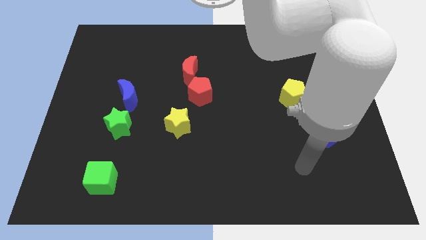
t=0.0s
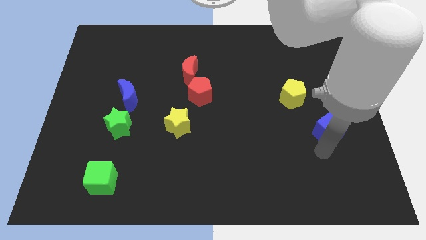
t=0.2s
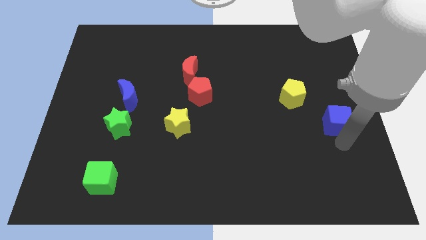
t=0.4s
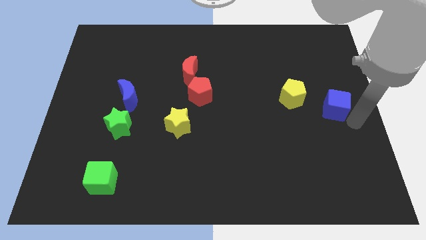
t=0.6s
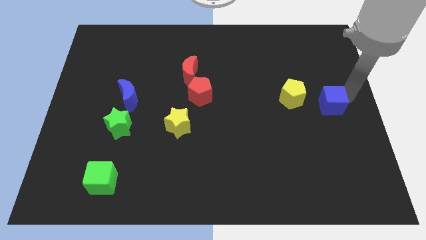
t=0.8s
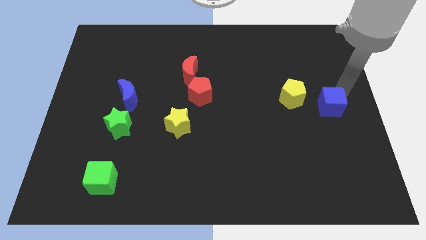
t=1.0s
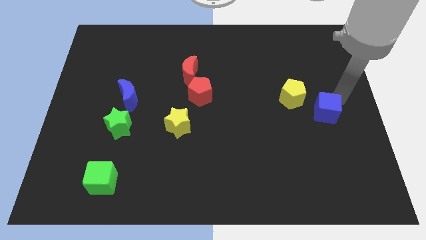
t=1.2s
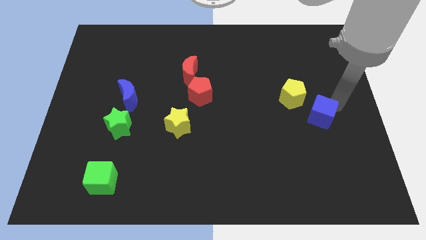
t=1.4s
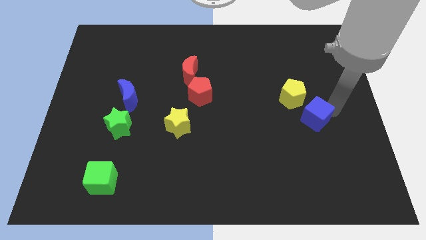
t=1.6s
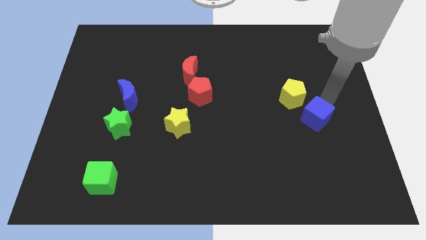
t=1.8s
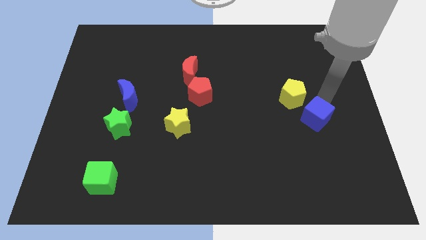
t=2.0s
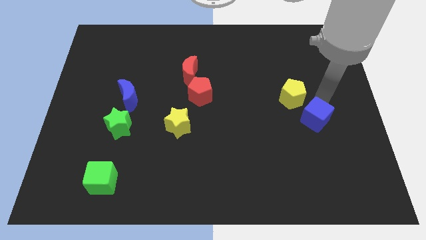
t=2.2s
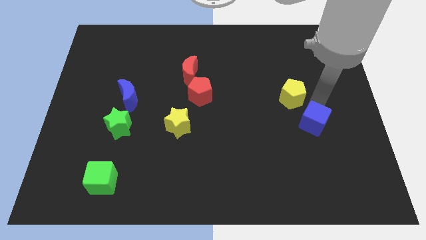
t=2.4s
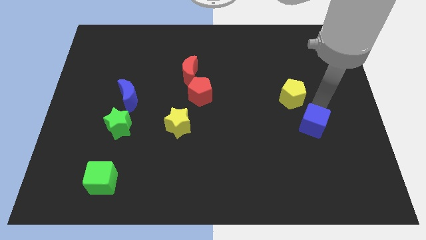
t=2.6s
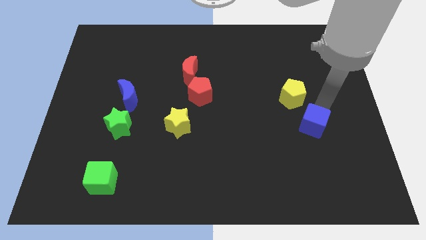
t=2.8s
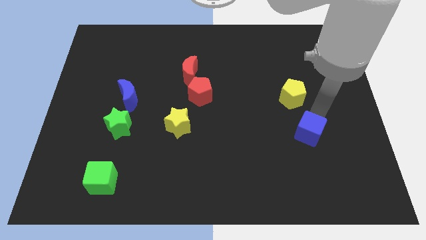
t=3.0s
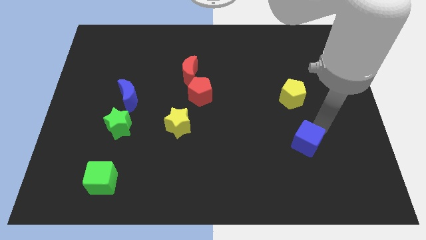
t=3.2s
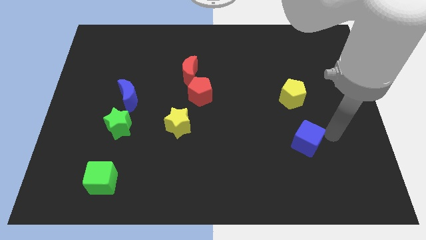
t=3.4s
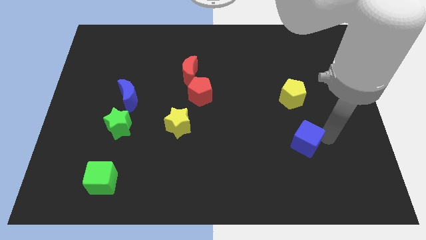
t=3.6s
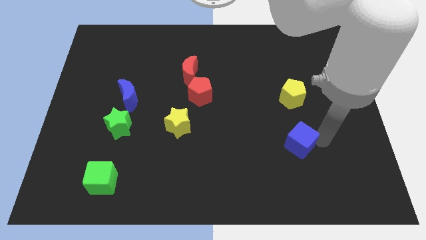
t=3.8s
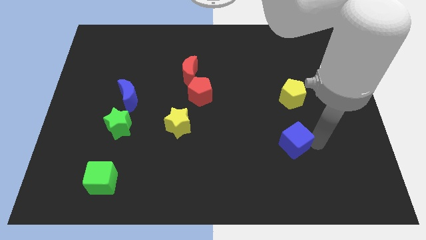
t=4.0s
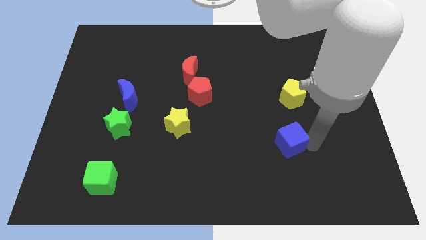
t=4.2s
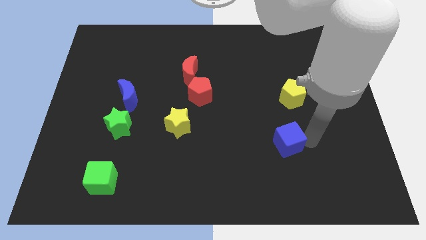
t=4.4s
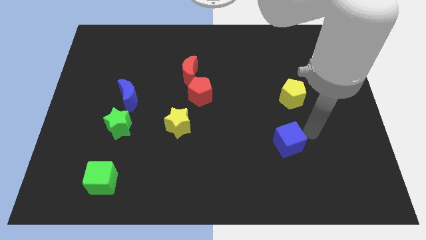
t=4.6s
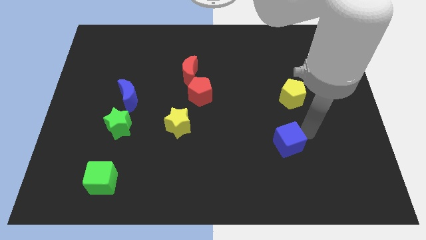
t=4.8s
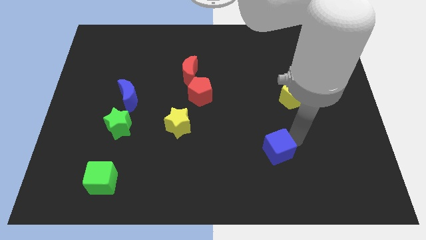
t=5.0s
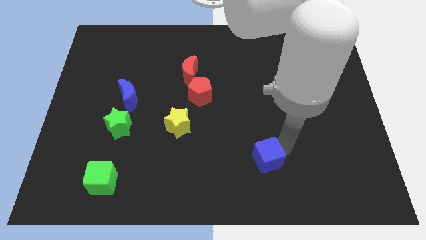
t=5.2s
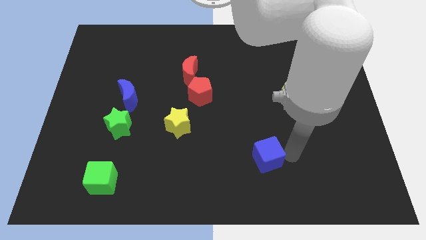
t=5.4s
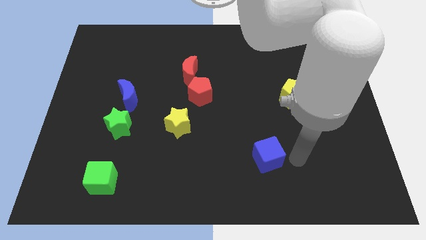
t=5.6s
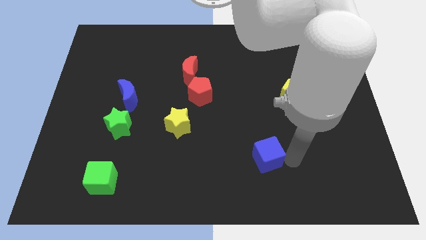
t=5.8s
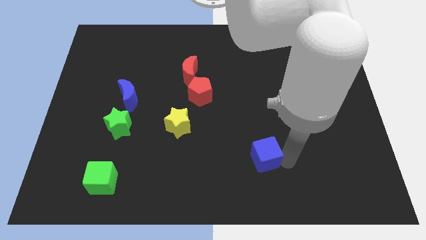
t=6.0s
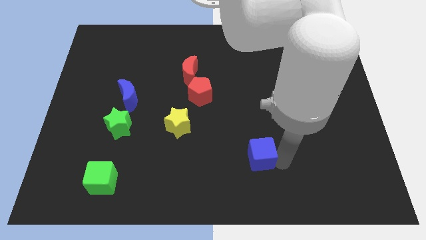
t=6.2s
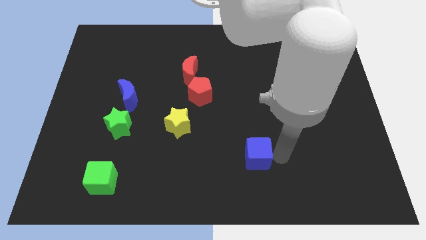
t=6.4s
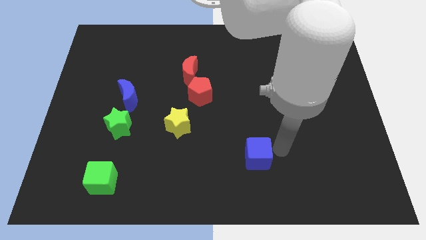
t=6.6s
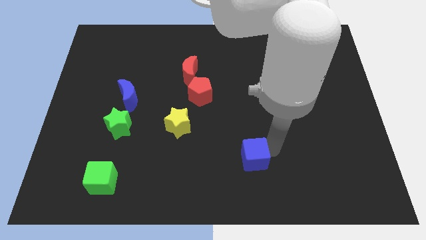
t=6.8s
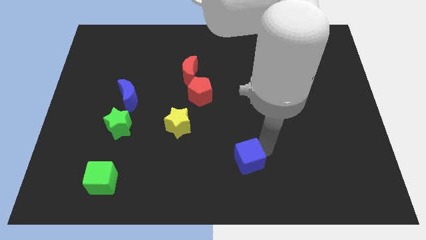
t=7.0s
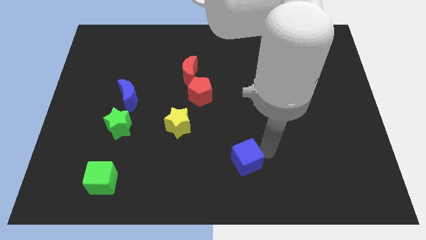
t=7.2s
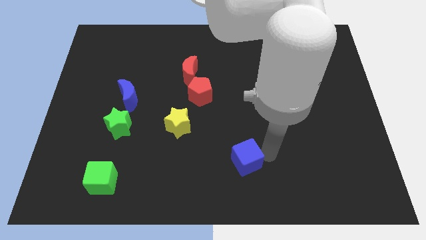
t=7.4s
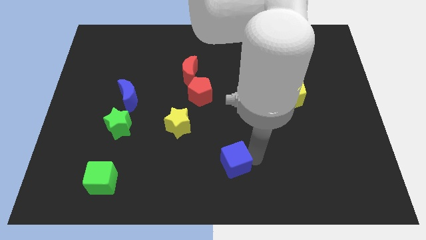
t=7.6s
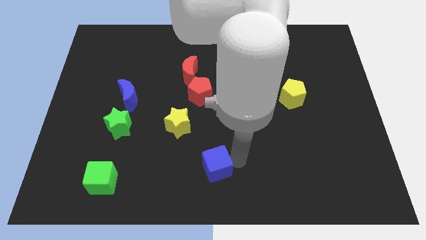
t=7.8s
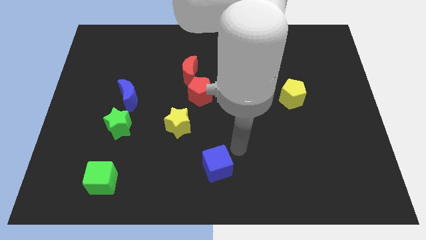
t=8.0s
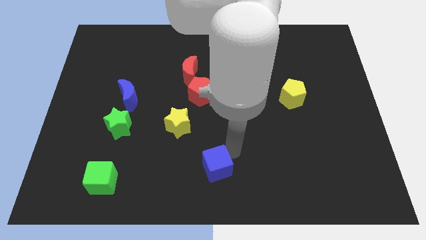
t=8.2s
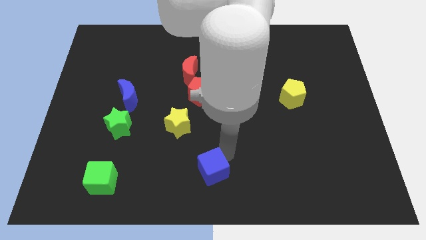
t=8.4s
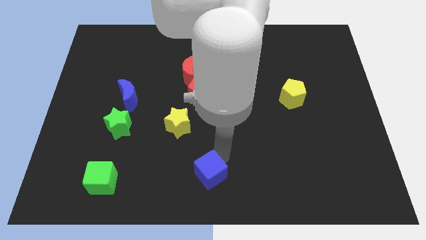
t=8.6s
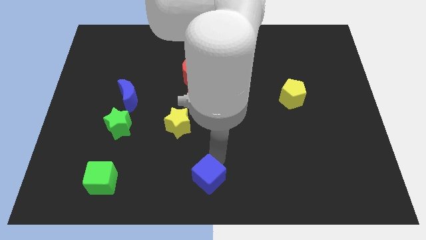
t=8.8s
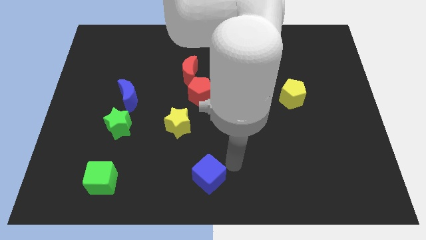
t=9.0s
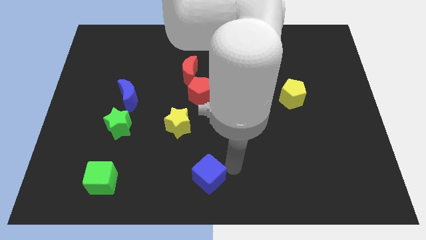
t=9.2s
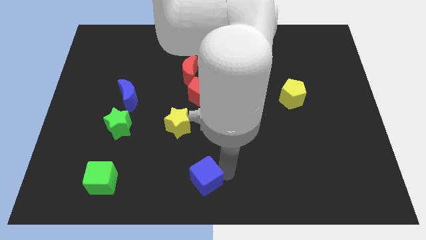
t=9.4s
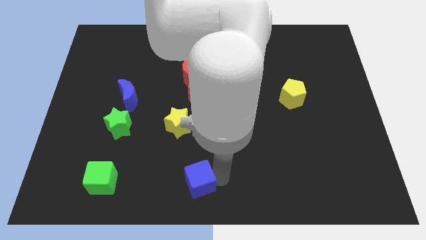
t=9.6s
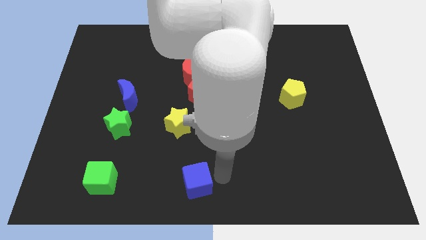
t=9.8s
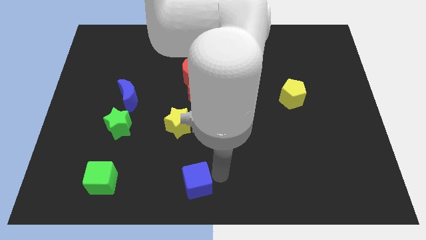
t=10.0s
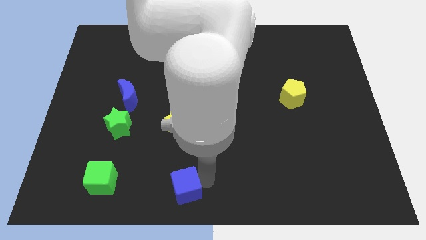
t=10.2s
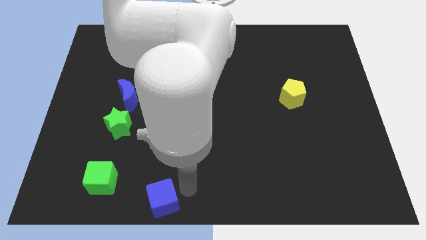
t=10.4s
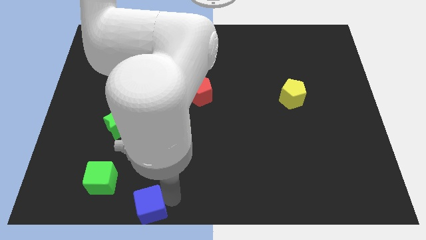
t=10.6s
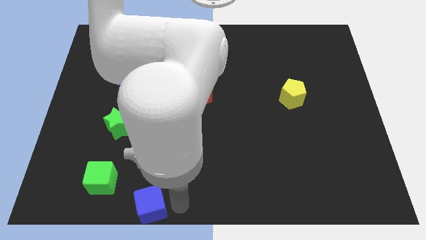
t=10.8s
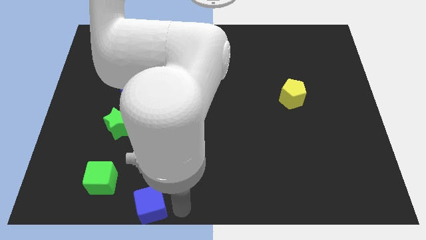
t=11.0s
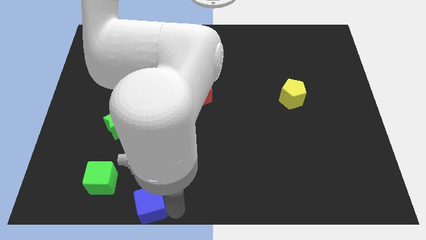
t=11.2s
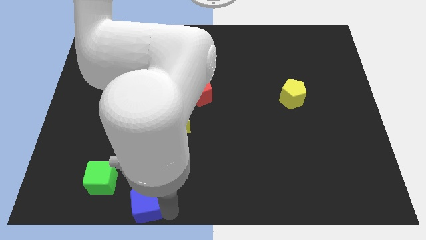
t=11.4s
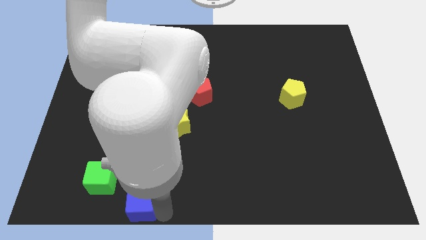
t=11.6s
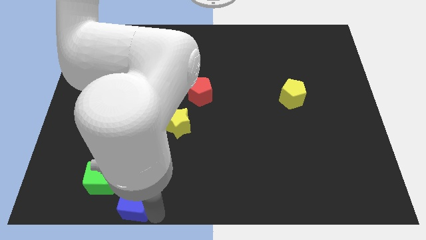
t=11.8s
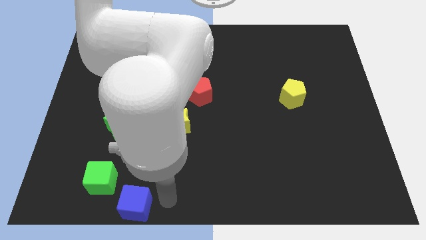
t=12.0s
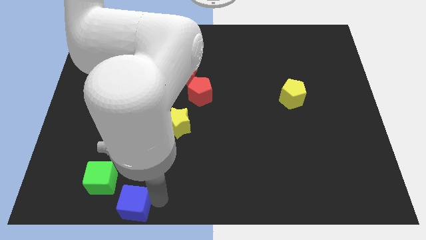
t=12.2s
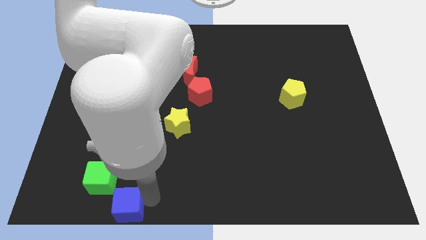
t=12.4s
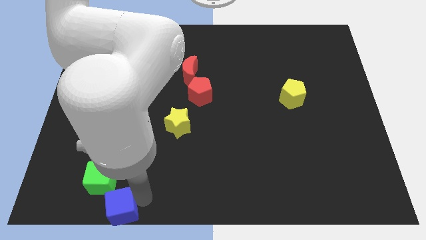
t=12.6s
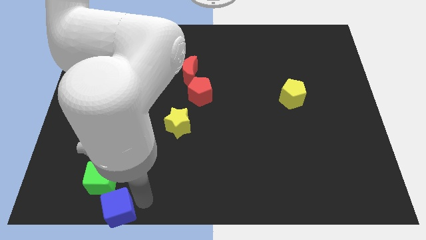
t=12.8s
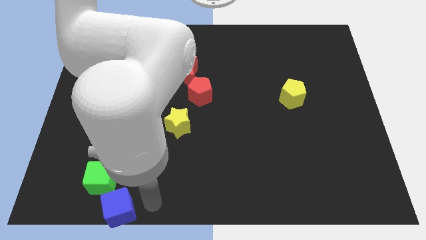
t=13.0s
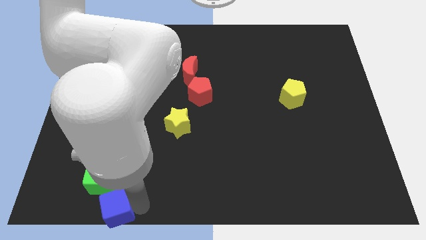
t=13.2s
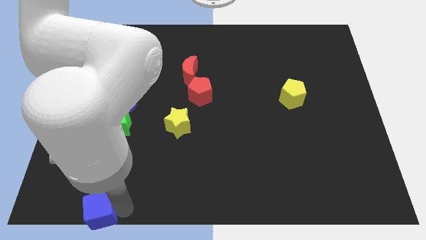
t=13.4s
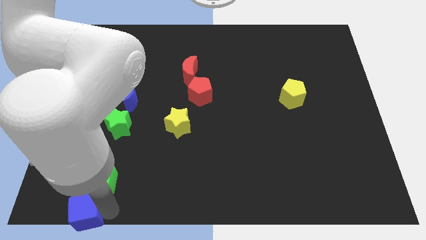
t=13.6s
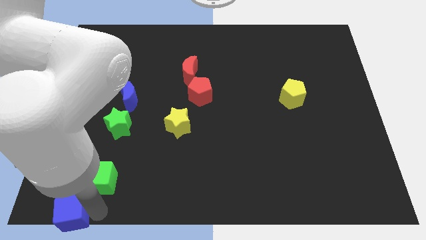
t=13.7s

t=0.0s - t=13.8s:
push the blue cube to the bottom left of the board

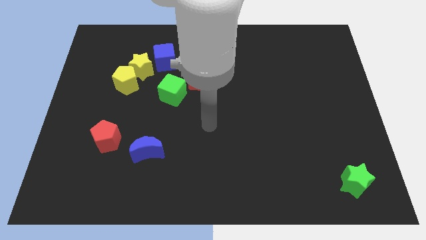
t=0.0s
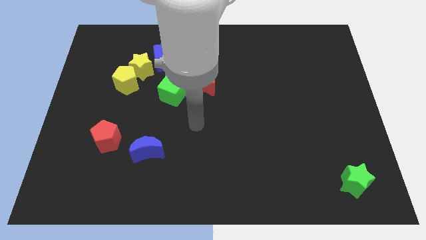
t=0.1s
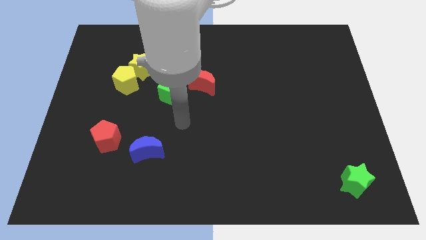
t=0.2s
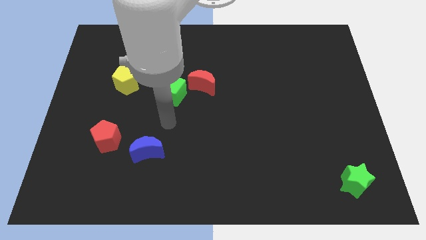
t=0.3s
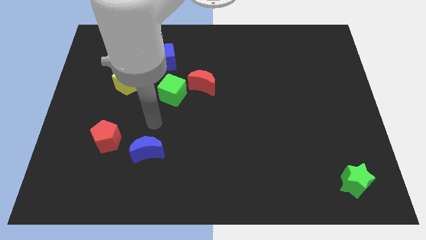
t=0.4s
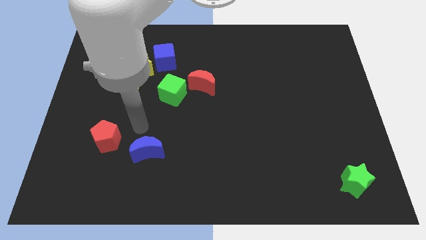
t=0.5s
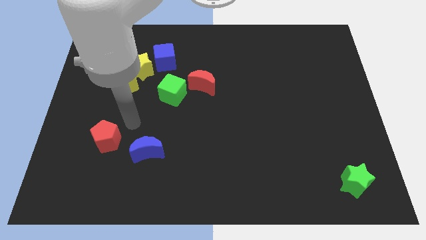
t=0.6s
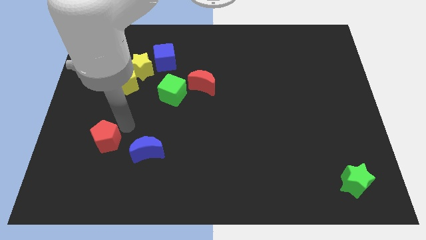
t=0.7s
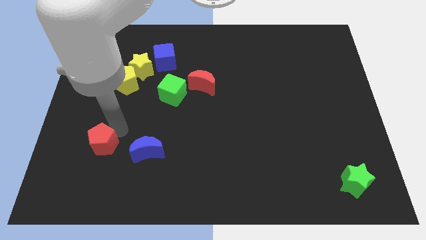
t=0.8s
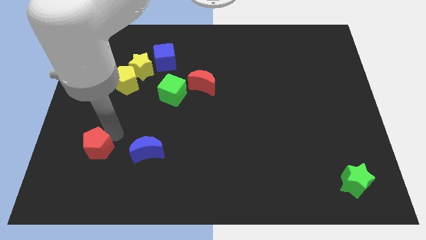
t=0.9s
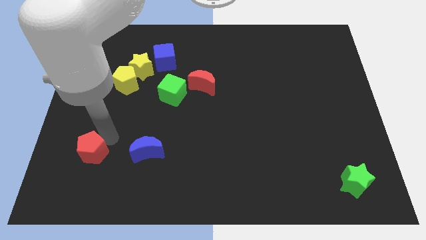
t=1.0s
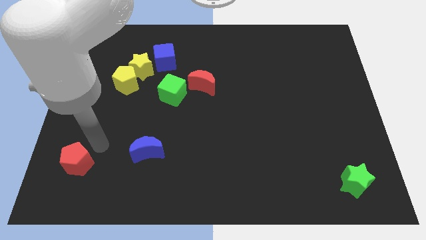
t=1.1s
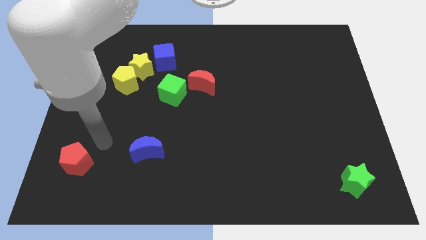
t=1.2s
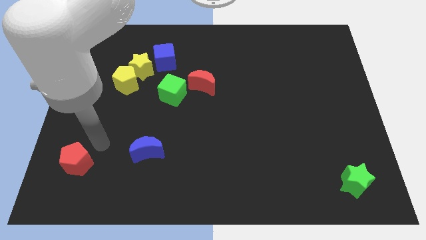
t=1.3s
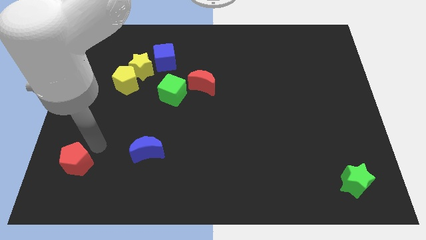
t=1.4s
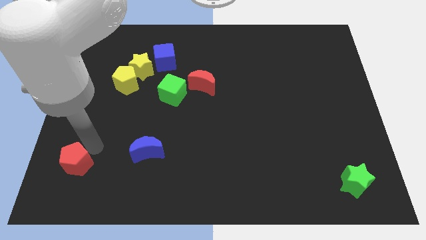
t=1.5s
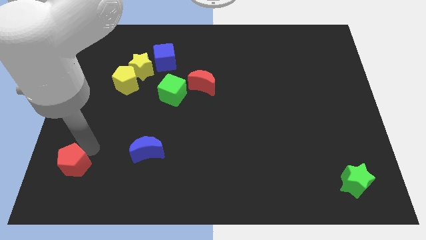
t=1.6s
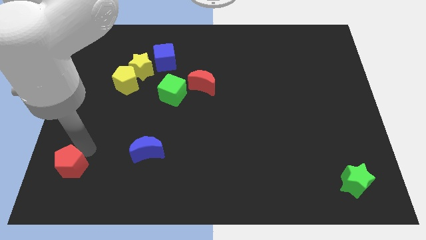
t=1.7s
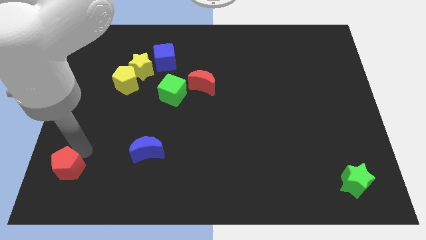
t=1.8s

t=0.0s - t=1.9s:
push the red pentagon to the bottom left corner
